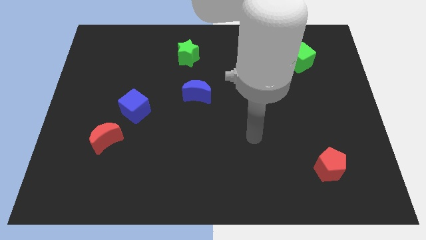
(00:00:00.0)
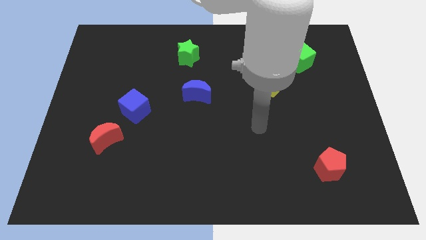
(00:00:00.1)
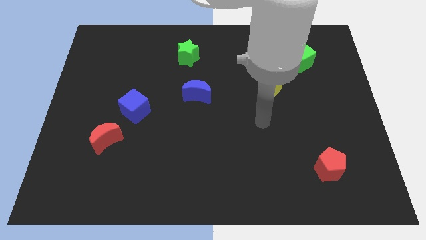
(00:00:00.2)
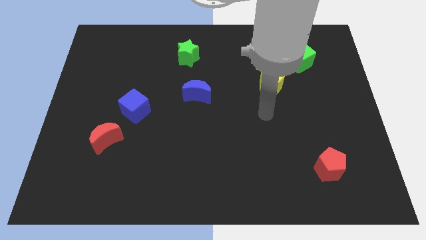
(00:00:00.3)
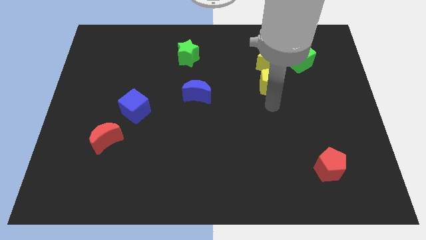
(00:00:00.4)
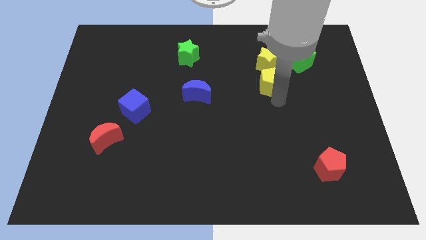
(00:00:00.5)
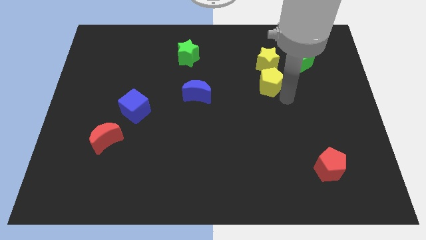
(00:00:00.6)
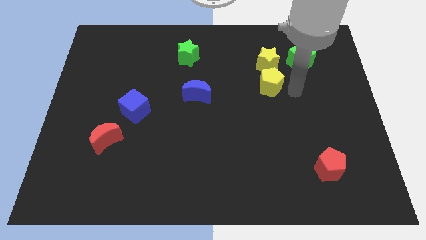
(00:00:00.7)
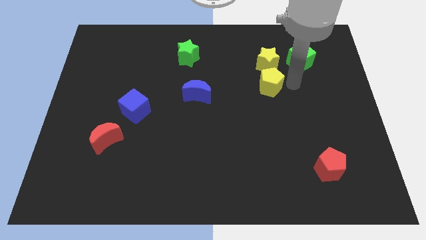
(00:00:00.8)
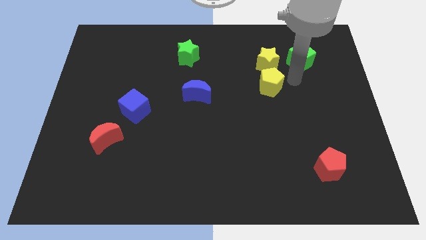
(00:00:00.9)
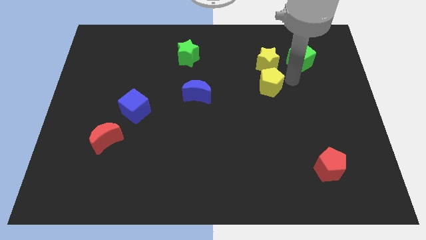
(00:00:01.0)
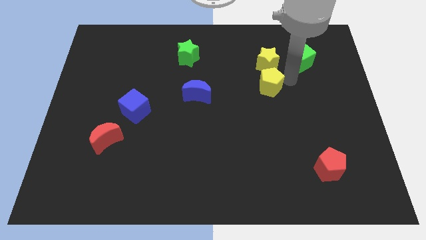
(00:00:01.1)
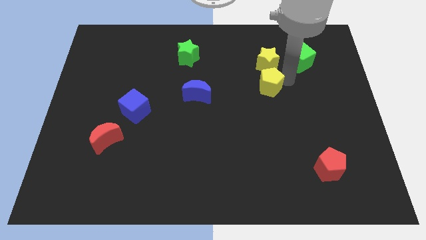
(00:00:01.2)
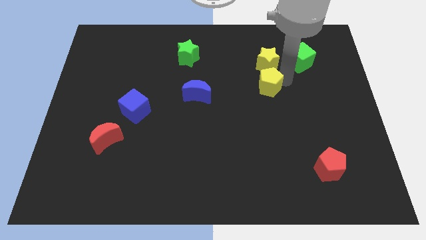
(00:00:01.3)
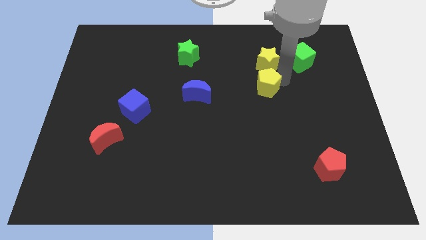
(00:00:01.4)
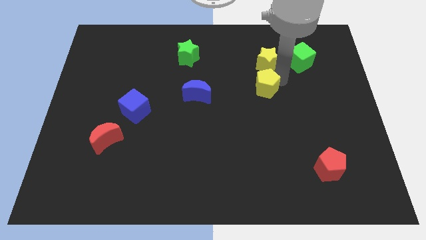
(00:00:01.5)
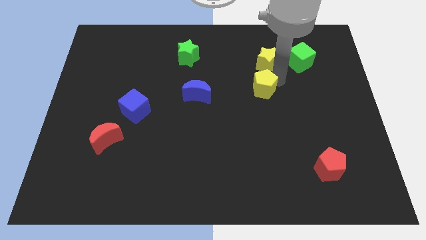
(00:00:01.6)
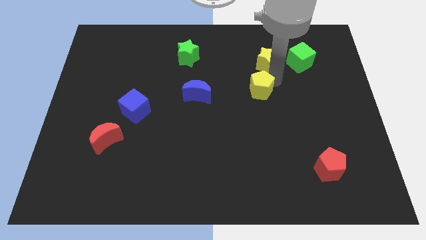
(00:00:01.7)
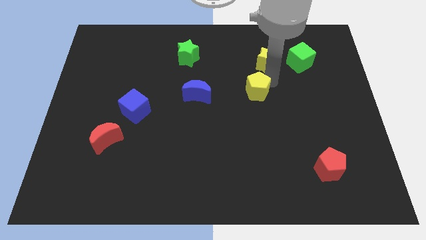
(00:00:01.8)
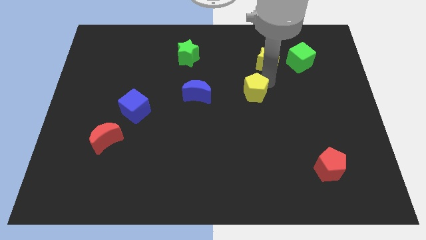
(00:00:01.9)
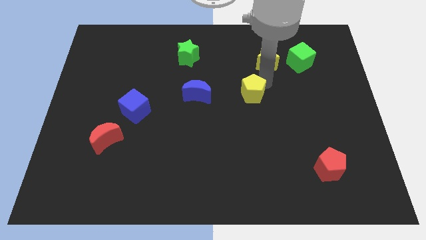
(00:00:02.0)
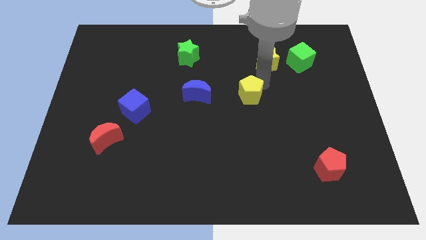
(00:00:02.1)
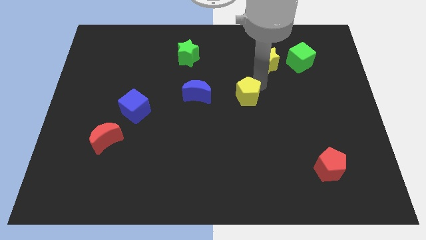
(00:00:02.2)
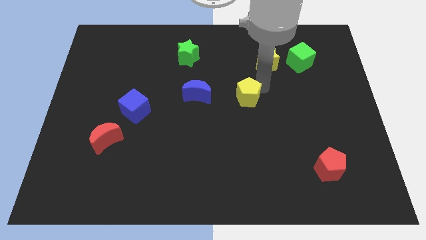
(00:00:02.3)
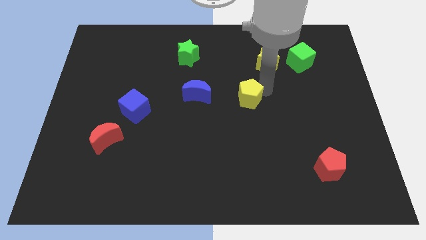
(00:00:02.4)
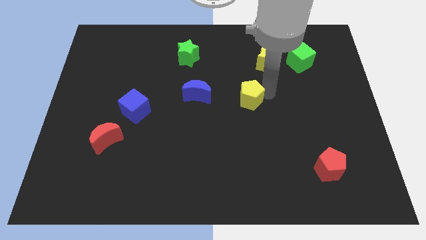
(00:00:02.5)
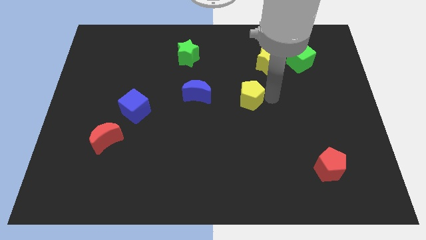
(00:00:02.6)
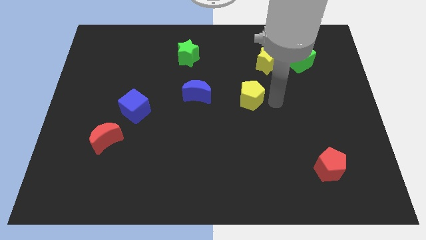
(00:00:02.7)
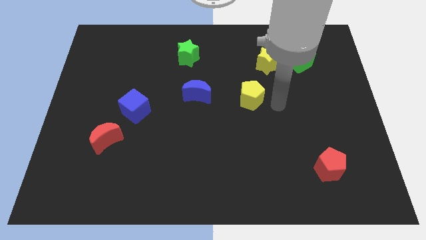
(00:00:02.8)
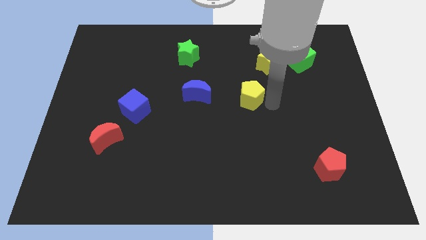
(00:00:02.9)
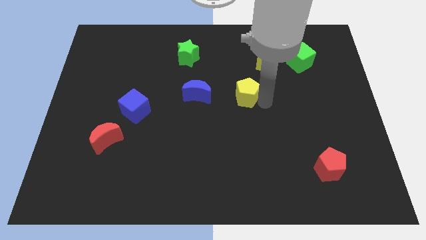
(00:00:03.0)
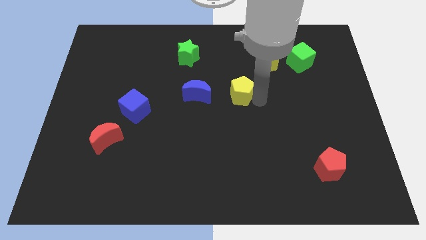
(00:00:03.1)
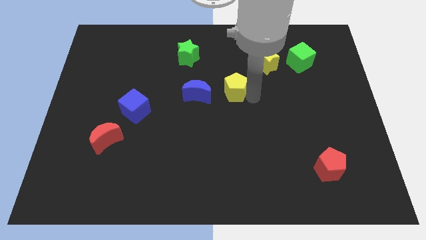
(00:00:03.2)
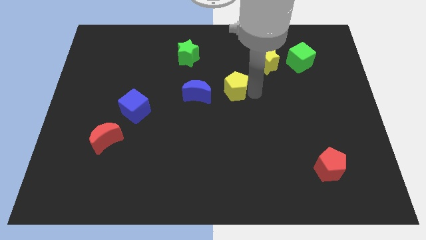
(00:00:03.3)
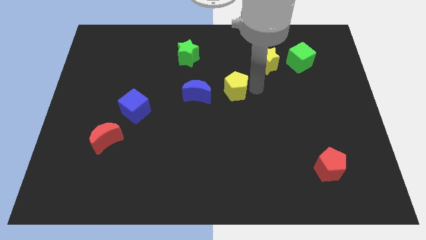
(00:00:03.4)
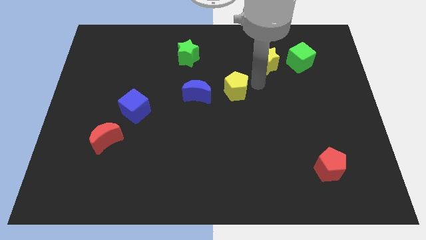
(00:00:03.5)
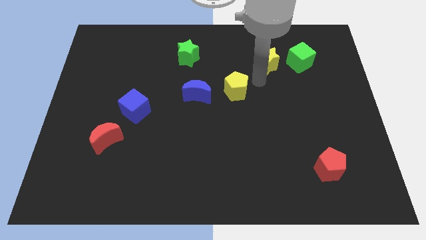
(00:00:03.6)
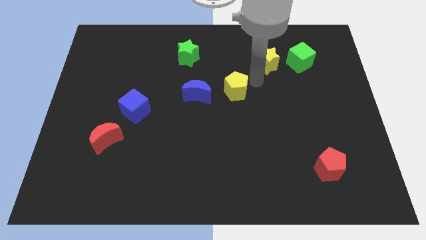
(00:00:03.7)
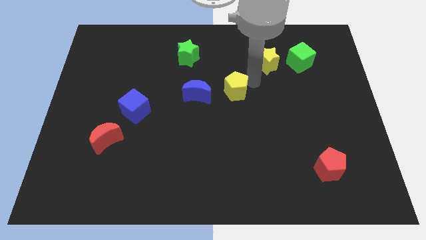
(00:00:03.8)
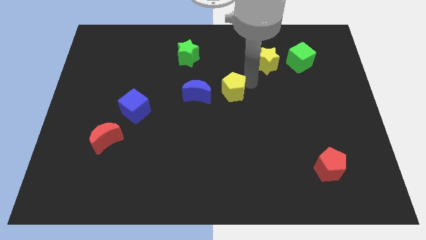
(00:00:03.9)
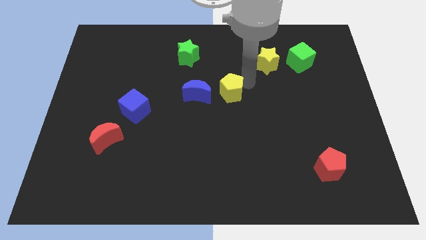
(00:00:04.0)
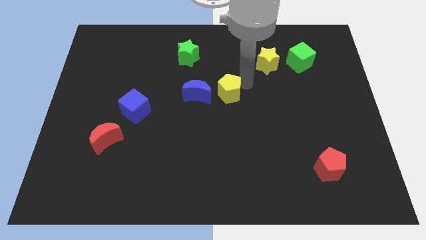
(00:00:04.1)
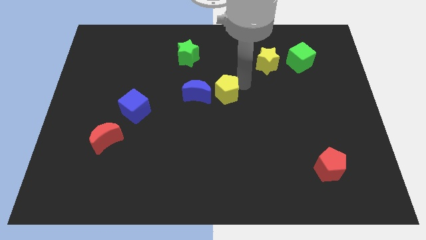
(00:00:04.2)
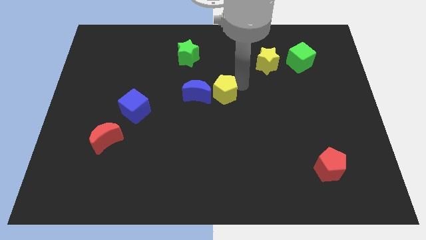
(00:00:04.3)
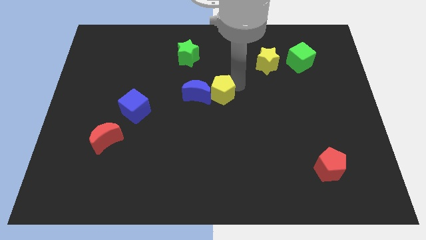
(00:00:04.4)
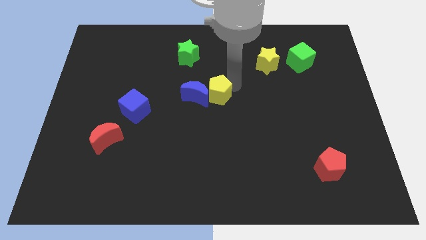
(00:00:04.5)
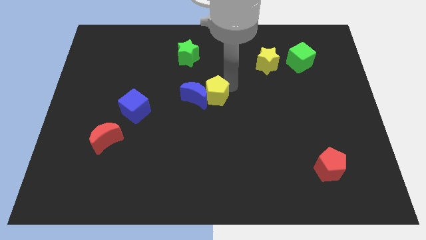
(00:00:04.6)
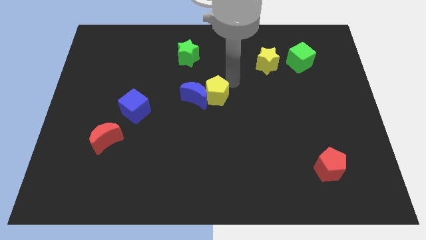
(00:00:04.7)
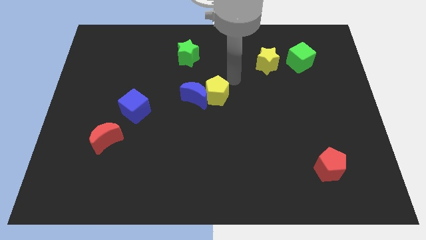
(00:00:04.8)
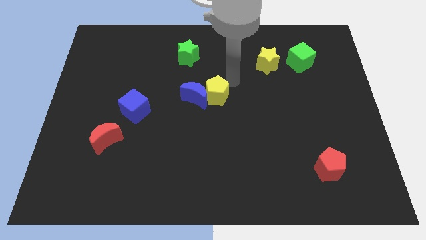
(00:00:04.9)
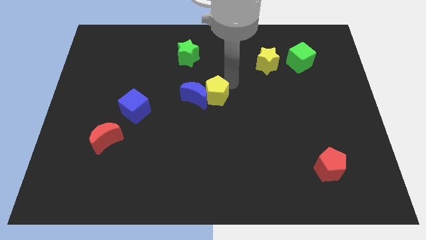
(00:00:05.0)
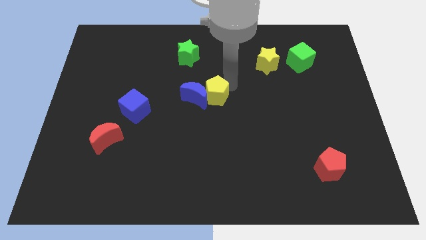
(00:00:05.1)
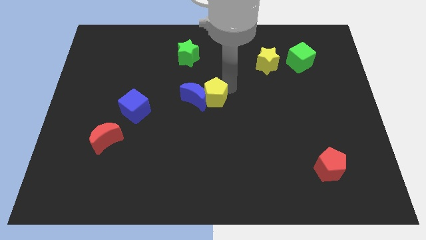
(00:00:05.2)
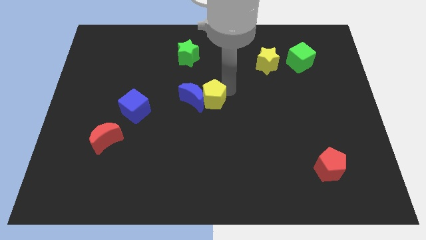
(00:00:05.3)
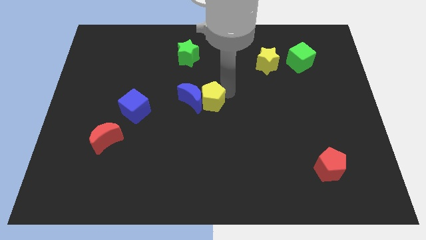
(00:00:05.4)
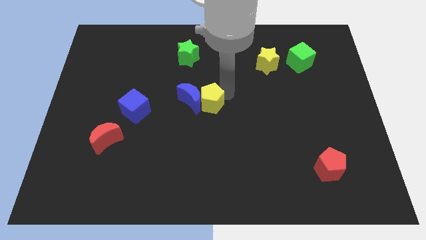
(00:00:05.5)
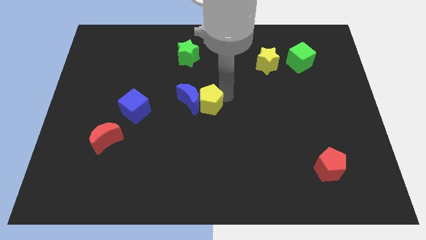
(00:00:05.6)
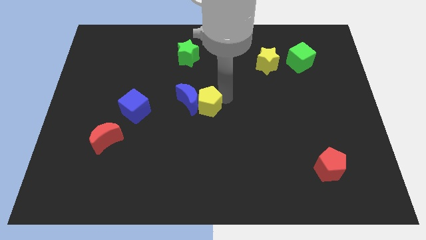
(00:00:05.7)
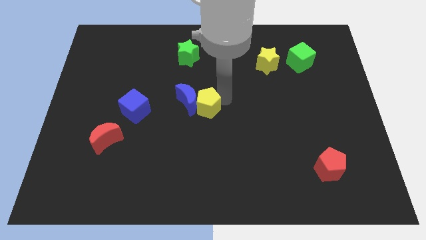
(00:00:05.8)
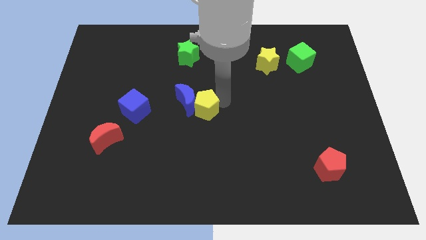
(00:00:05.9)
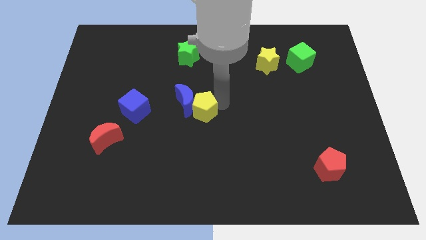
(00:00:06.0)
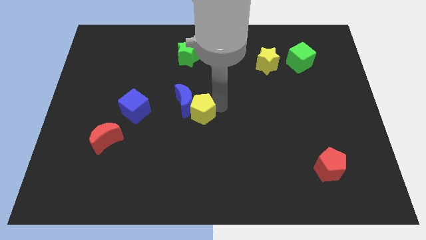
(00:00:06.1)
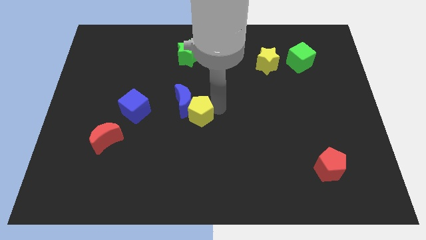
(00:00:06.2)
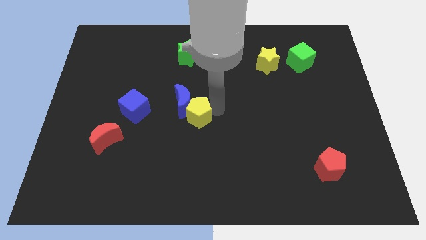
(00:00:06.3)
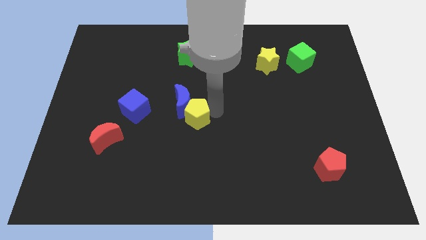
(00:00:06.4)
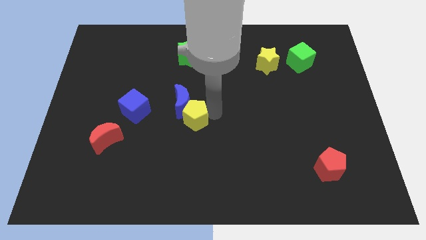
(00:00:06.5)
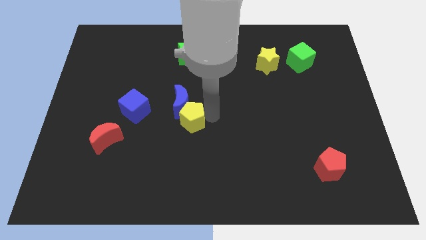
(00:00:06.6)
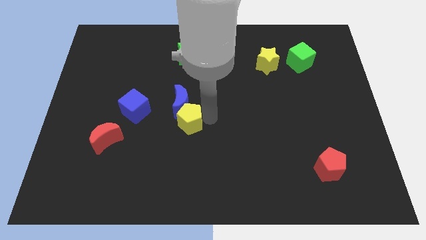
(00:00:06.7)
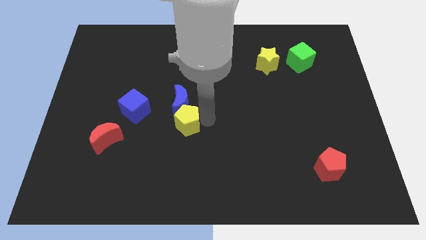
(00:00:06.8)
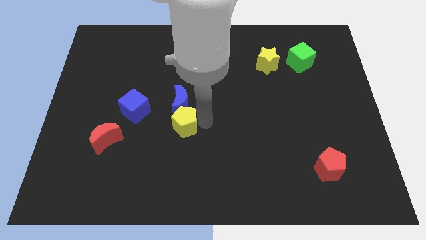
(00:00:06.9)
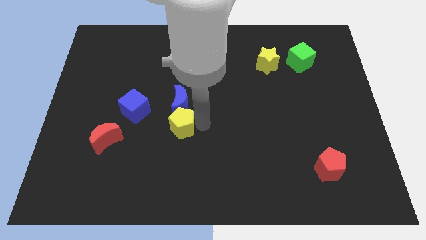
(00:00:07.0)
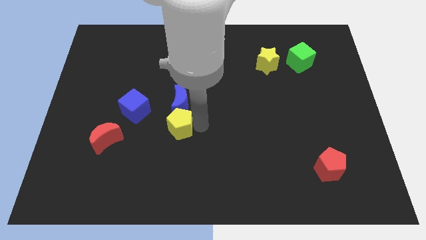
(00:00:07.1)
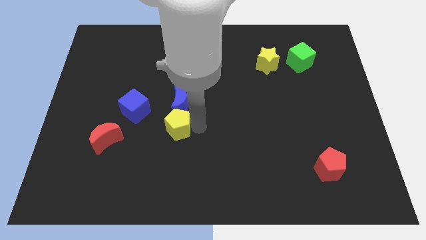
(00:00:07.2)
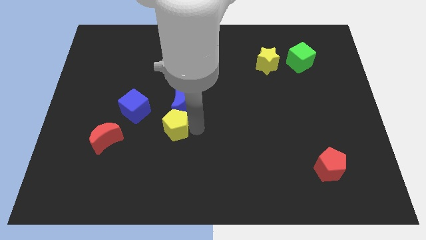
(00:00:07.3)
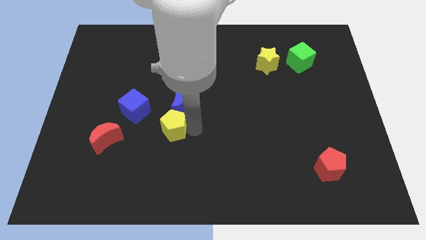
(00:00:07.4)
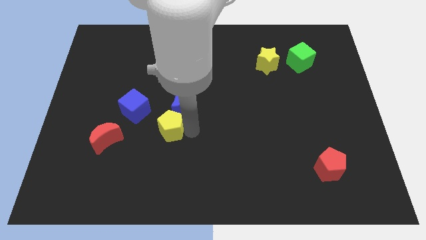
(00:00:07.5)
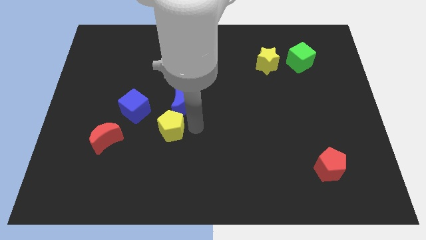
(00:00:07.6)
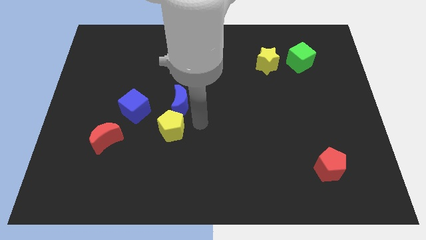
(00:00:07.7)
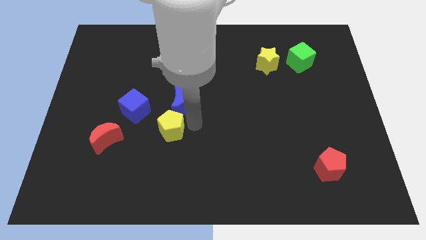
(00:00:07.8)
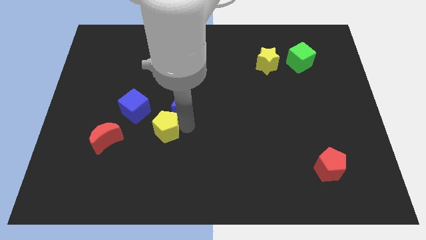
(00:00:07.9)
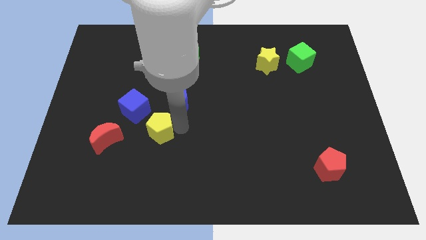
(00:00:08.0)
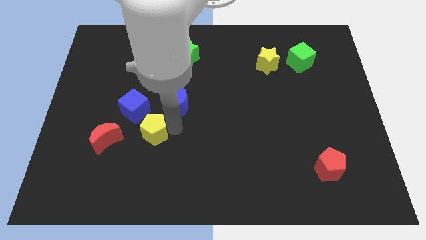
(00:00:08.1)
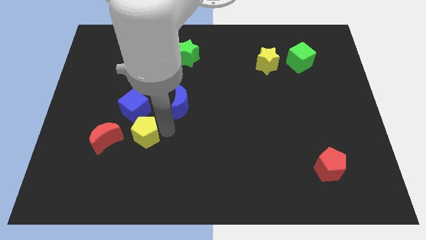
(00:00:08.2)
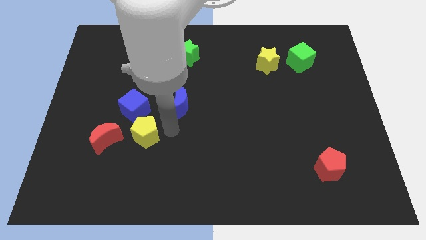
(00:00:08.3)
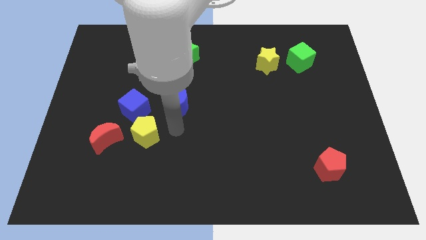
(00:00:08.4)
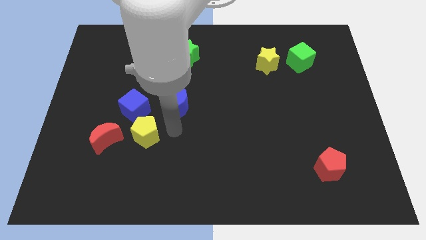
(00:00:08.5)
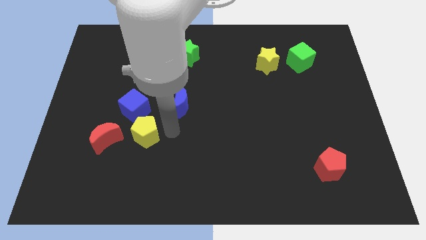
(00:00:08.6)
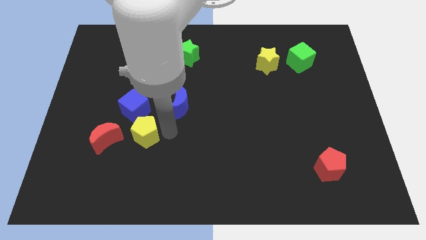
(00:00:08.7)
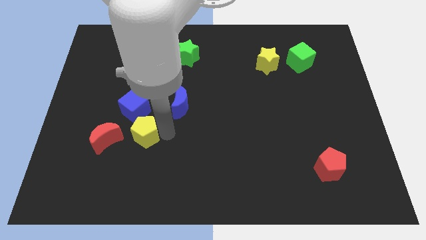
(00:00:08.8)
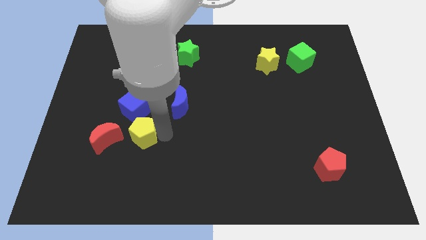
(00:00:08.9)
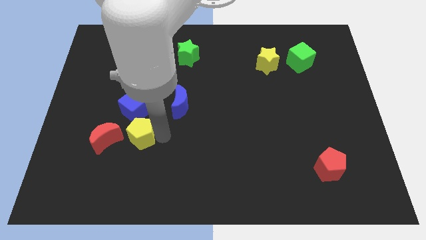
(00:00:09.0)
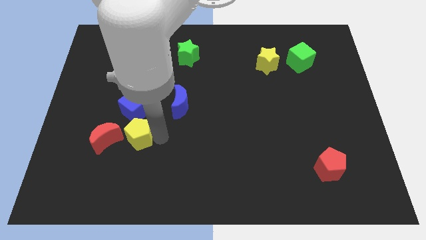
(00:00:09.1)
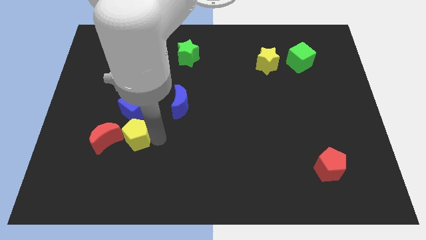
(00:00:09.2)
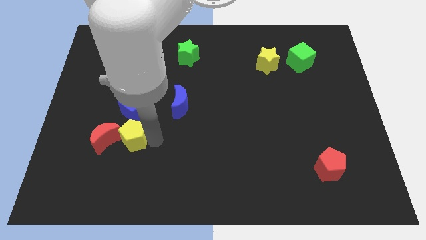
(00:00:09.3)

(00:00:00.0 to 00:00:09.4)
put the yellow pentagon close to the red moon
